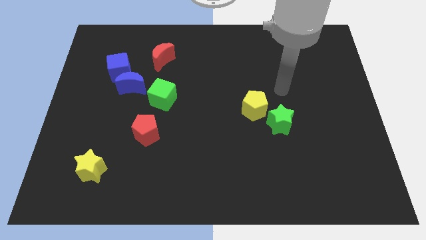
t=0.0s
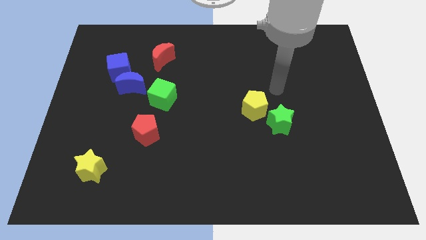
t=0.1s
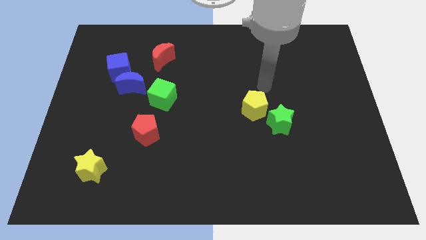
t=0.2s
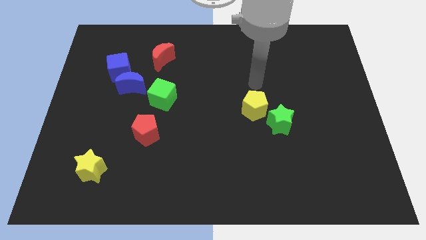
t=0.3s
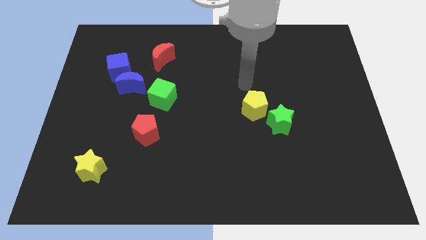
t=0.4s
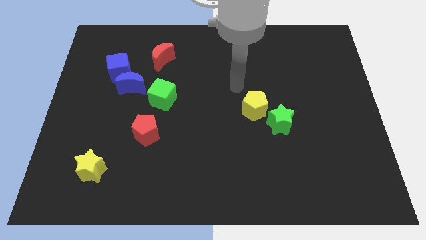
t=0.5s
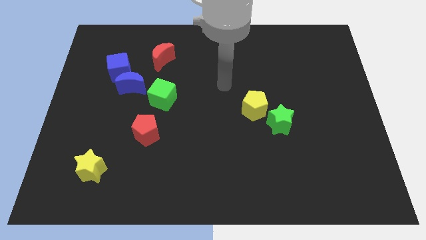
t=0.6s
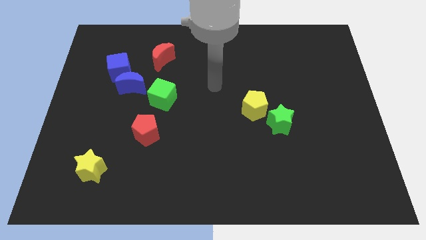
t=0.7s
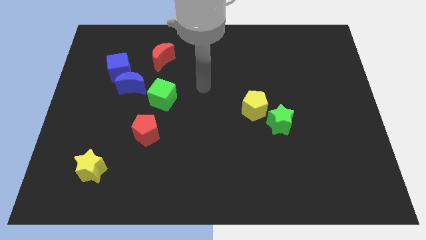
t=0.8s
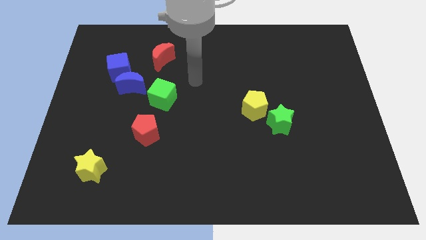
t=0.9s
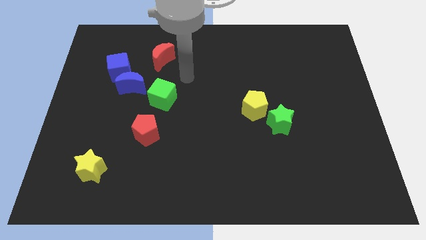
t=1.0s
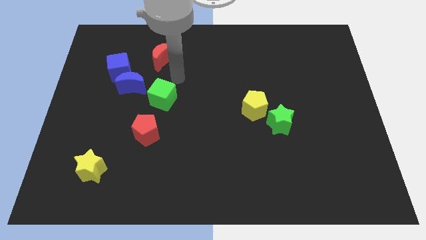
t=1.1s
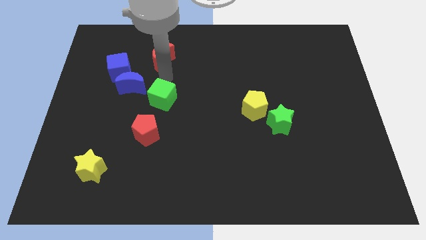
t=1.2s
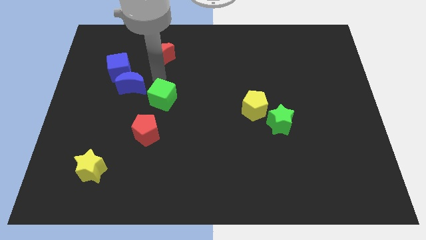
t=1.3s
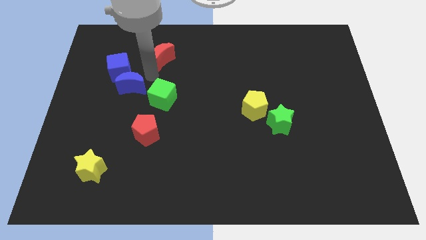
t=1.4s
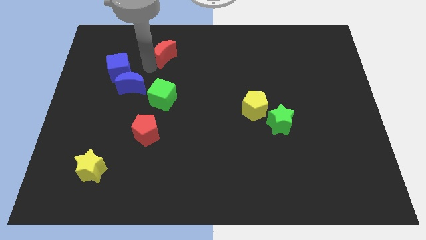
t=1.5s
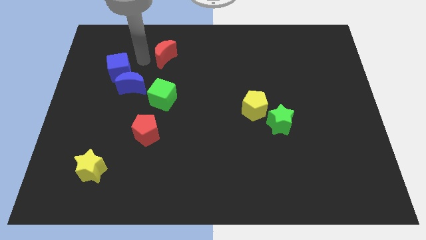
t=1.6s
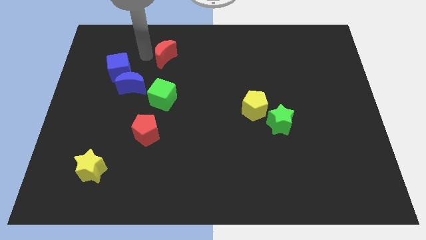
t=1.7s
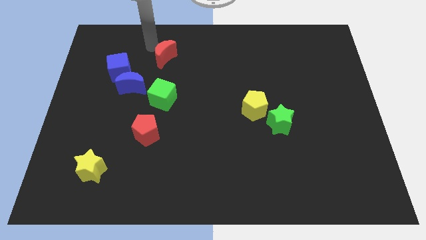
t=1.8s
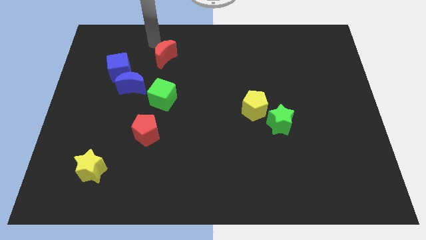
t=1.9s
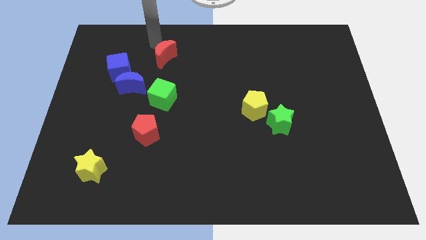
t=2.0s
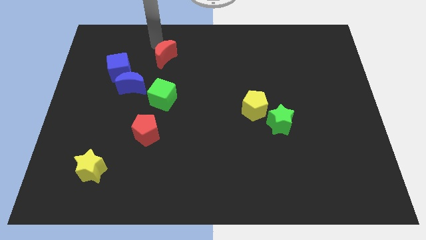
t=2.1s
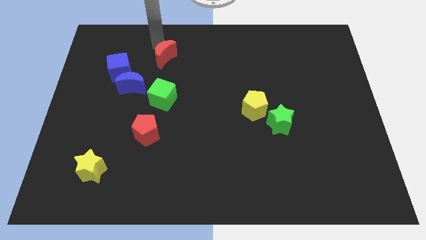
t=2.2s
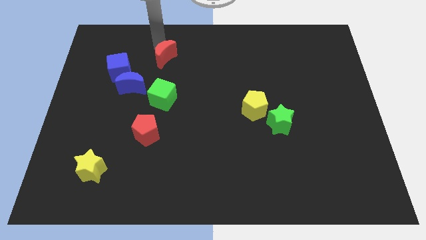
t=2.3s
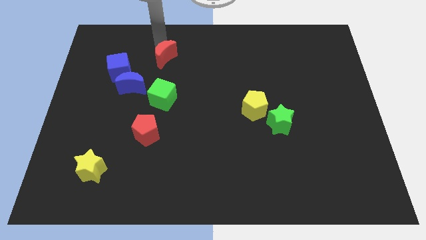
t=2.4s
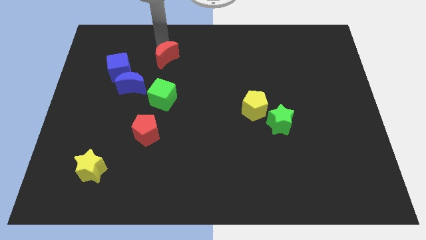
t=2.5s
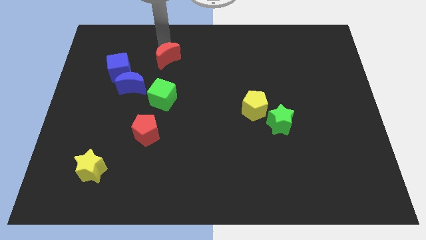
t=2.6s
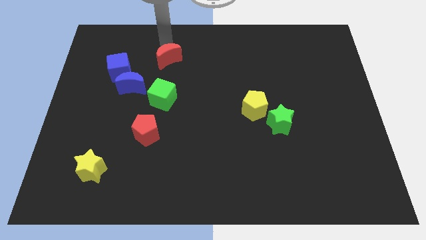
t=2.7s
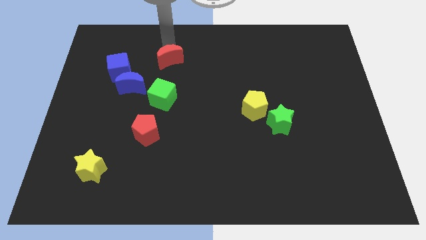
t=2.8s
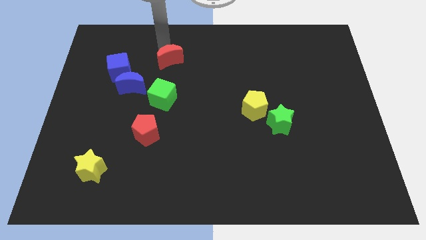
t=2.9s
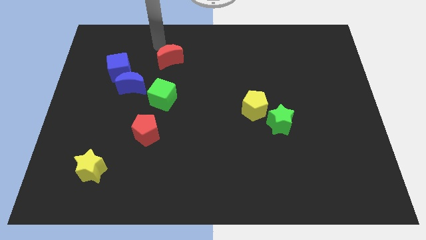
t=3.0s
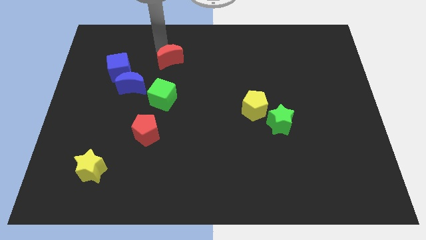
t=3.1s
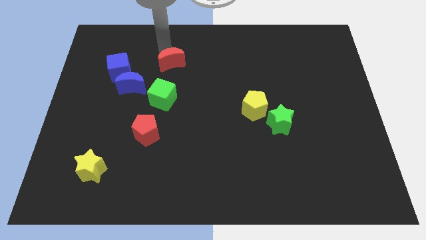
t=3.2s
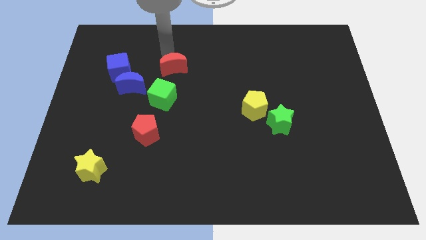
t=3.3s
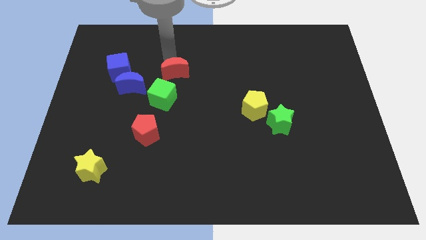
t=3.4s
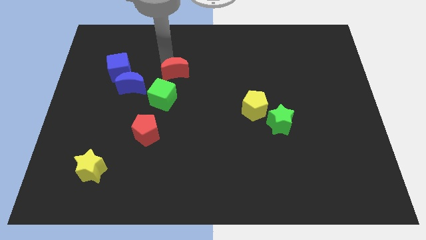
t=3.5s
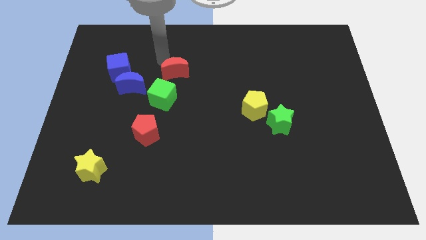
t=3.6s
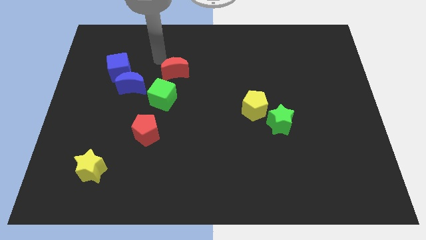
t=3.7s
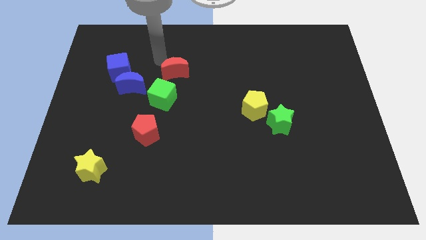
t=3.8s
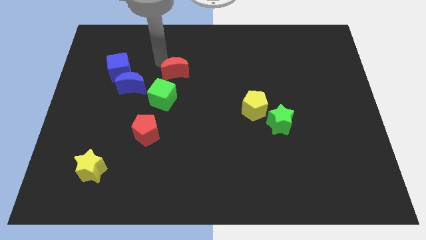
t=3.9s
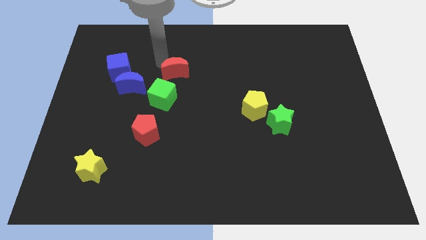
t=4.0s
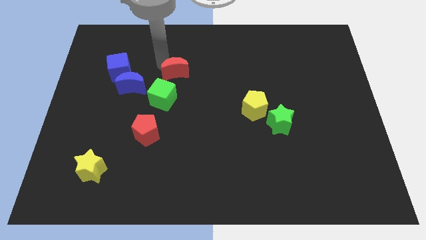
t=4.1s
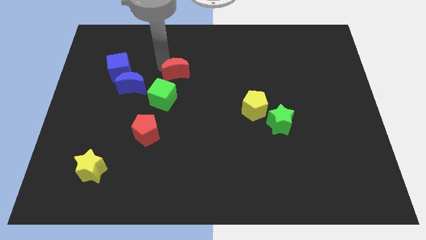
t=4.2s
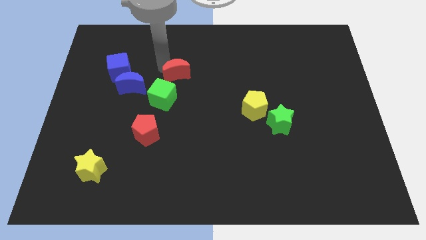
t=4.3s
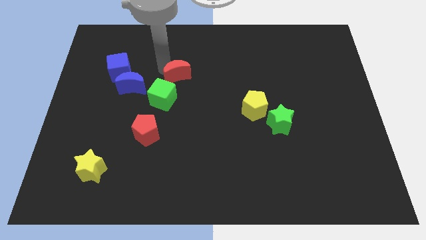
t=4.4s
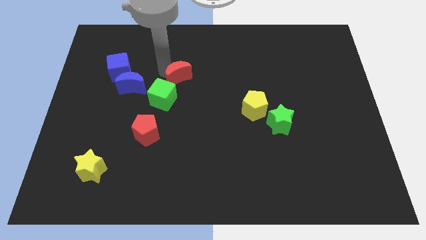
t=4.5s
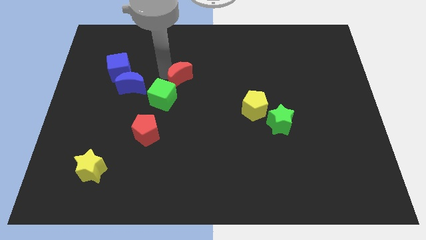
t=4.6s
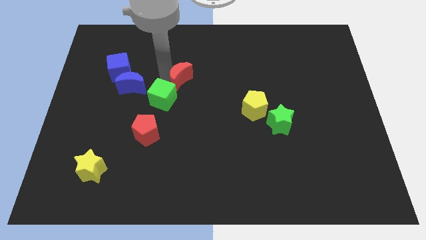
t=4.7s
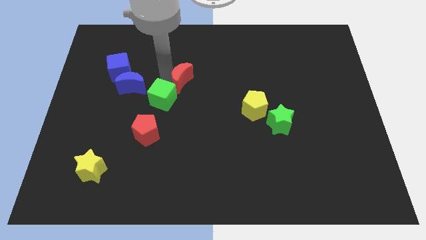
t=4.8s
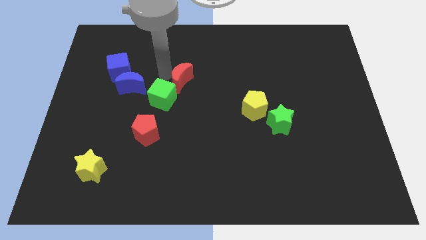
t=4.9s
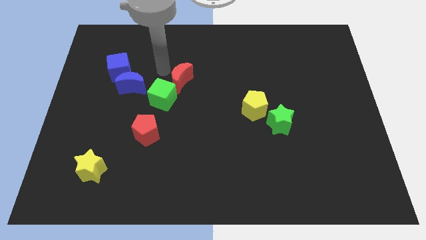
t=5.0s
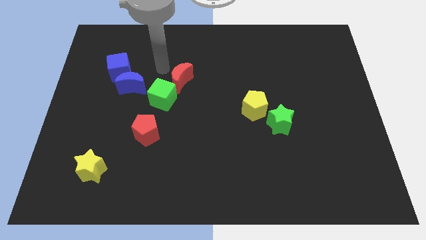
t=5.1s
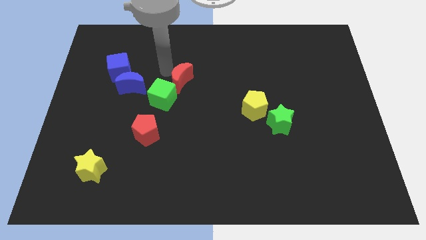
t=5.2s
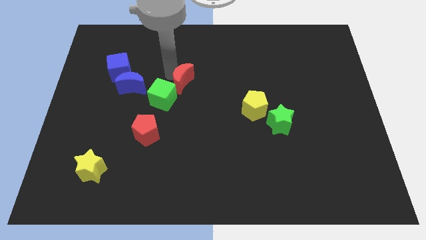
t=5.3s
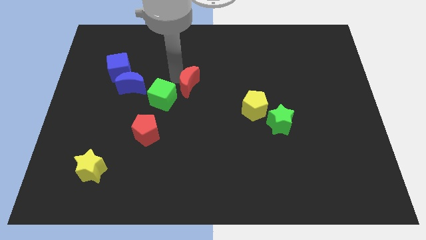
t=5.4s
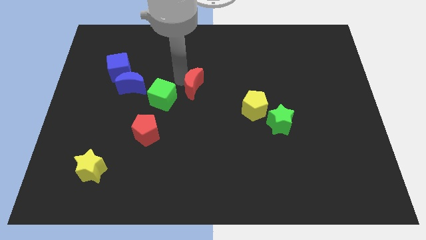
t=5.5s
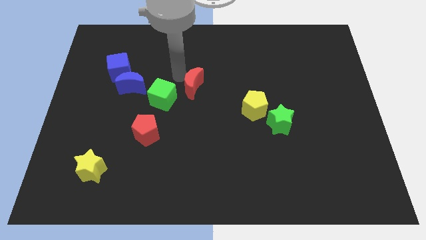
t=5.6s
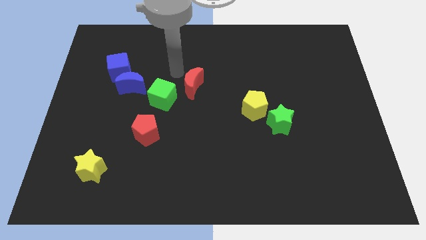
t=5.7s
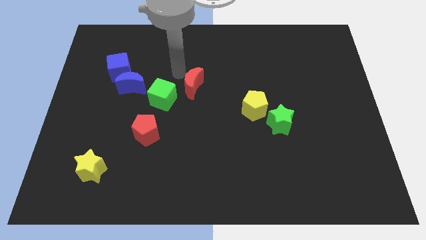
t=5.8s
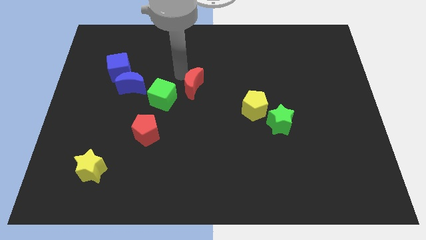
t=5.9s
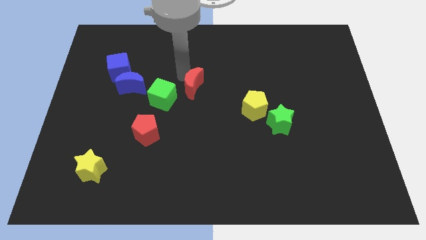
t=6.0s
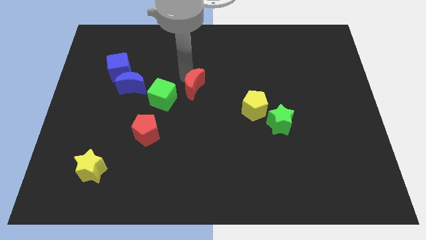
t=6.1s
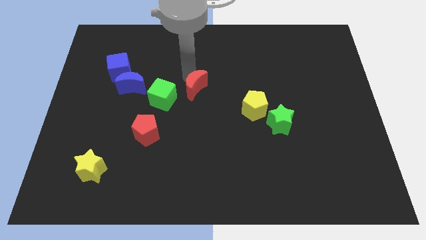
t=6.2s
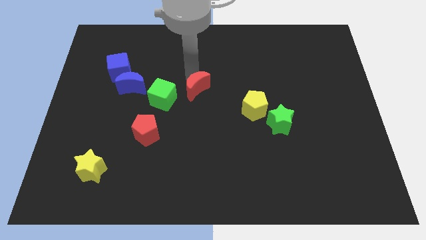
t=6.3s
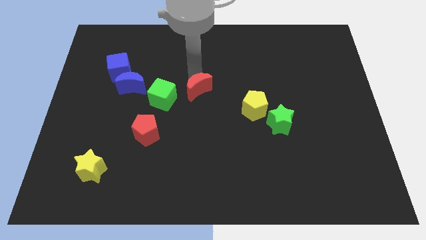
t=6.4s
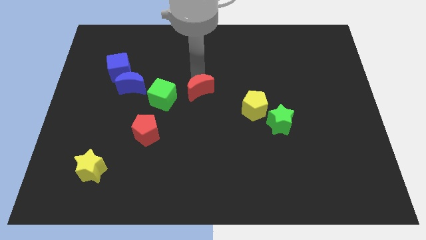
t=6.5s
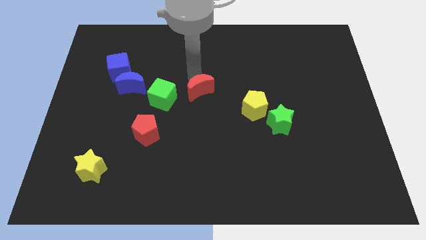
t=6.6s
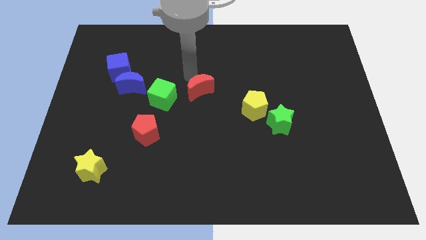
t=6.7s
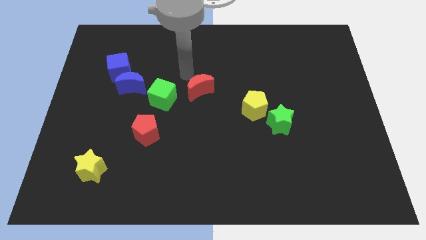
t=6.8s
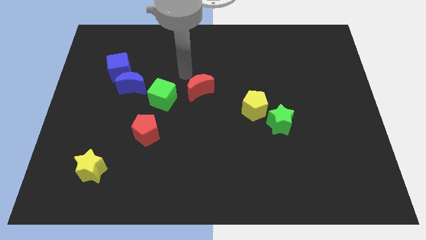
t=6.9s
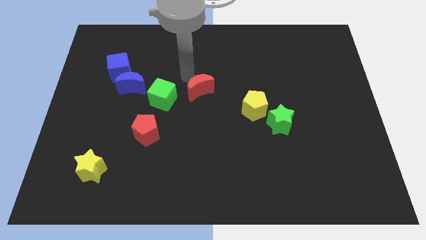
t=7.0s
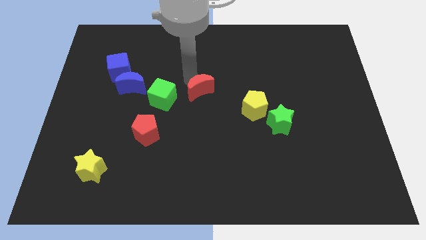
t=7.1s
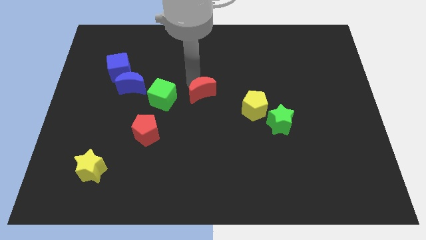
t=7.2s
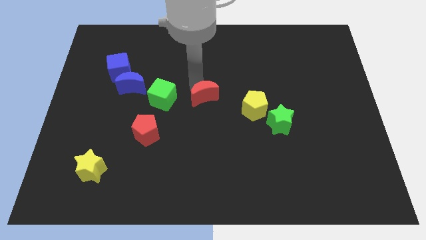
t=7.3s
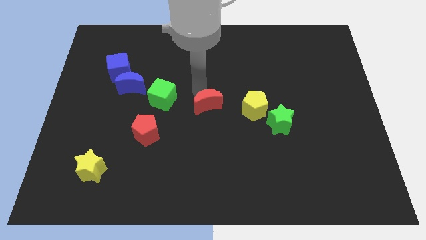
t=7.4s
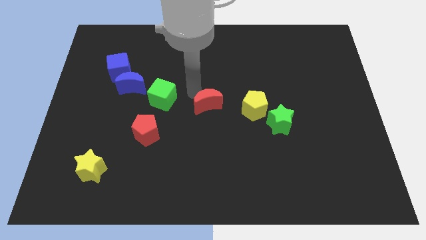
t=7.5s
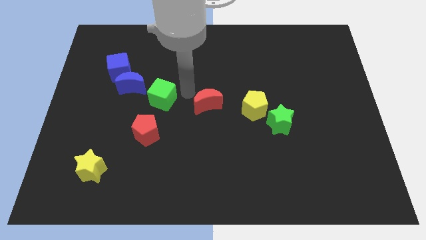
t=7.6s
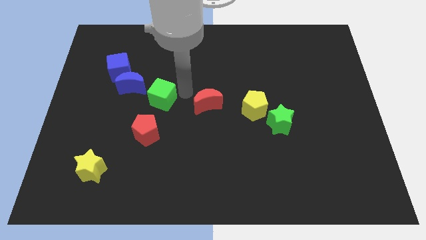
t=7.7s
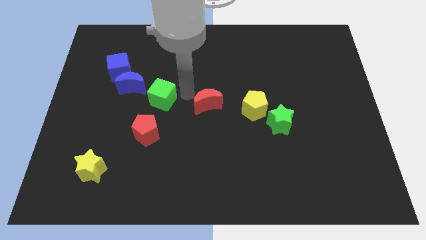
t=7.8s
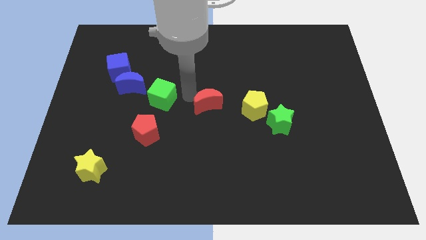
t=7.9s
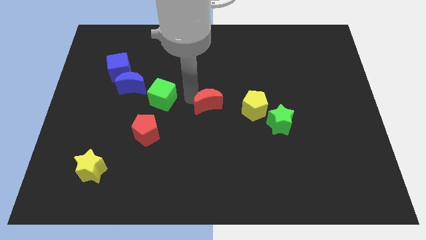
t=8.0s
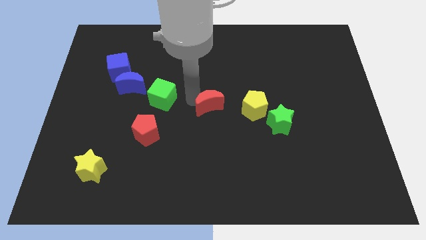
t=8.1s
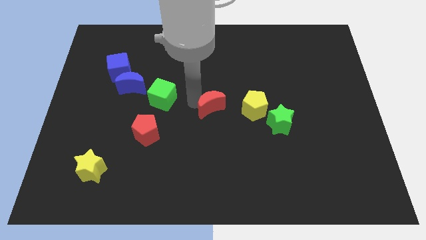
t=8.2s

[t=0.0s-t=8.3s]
push the red moon down and to the right diagonally
